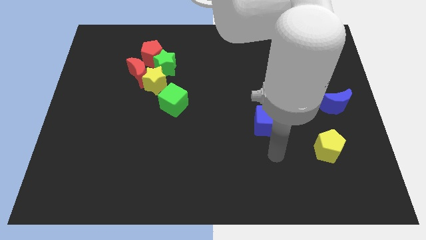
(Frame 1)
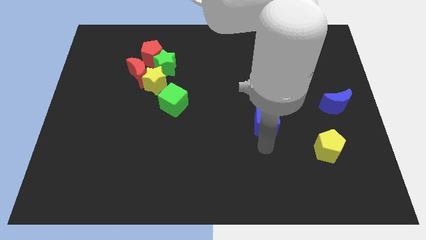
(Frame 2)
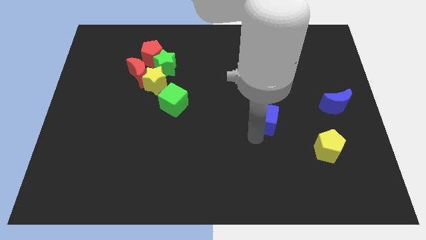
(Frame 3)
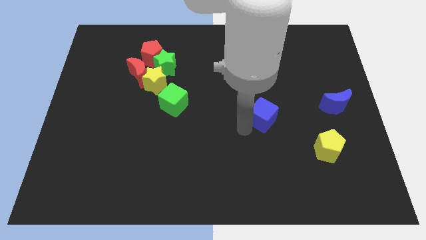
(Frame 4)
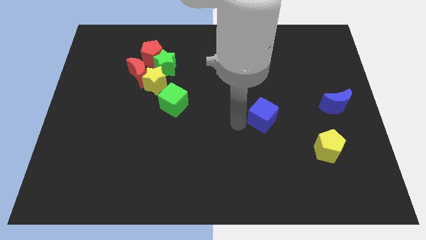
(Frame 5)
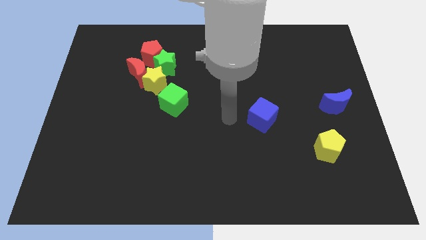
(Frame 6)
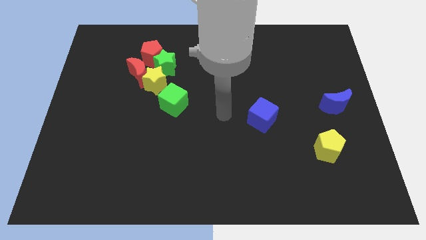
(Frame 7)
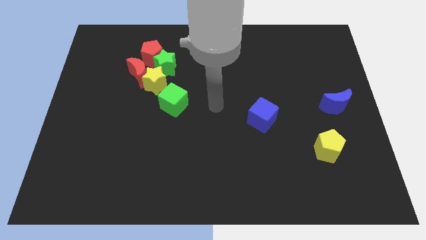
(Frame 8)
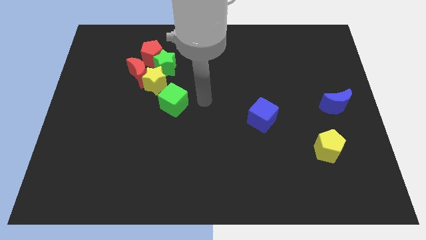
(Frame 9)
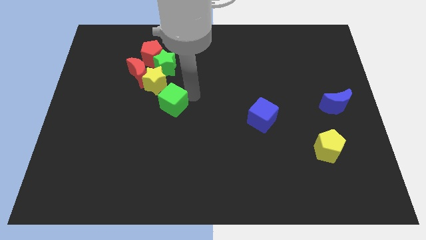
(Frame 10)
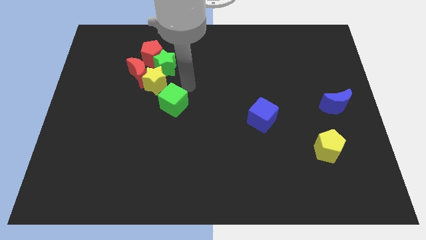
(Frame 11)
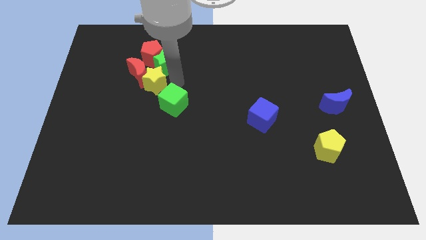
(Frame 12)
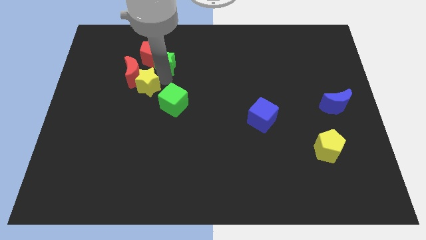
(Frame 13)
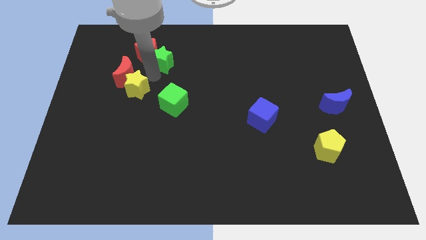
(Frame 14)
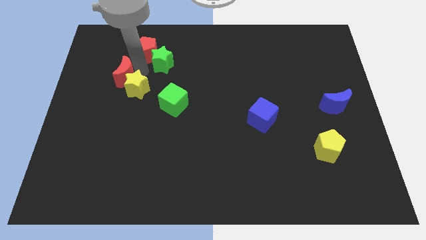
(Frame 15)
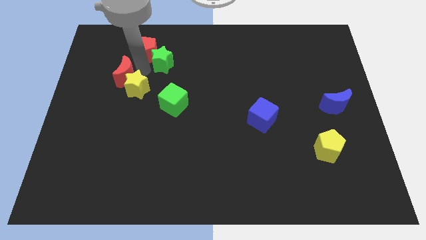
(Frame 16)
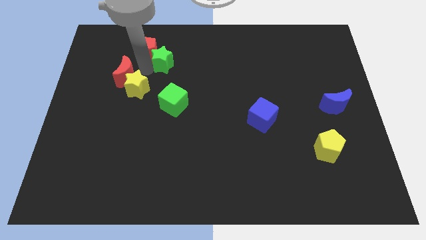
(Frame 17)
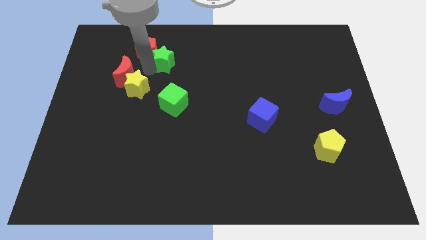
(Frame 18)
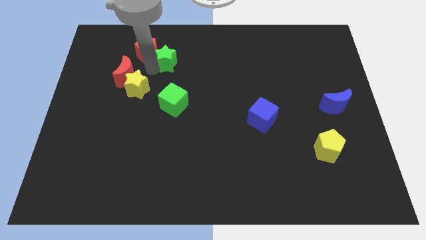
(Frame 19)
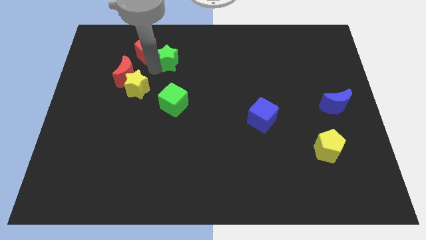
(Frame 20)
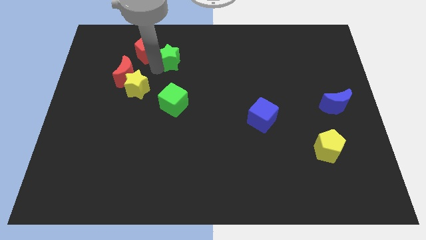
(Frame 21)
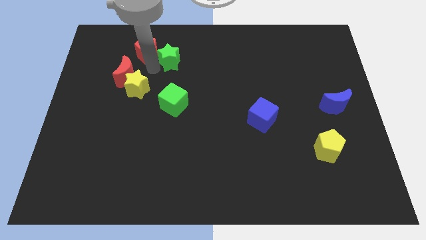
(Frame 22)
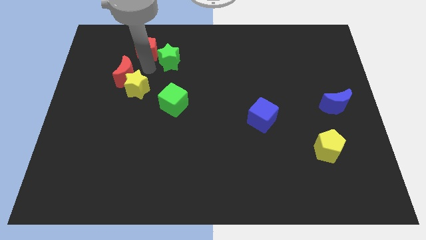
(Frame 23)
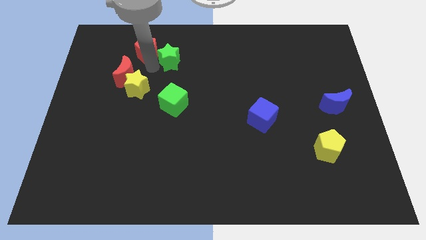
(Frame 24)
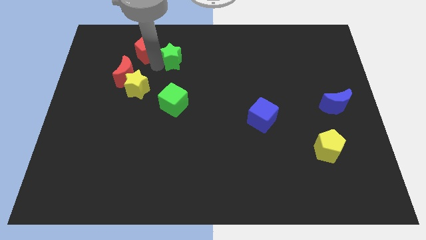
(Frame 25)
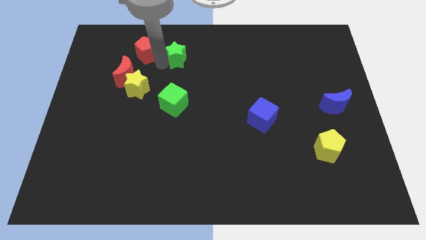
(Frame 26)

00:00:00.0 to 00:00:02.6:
pull the green star apart from the red pentagon, yellow star, and red moon

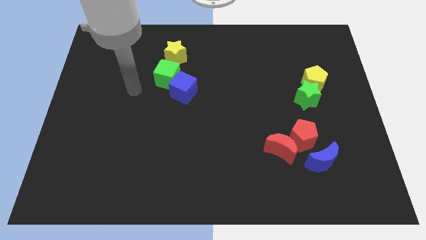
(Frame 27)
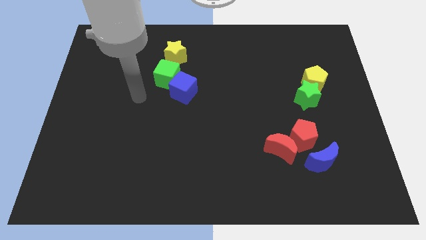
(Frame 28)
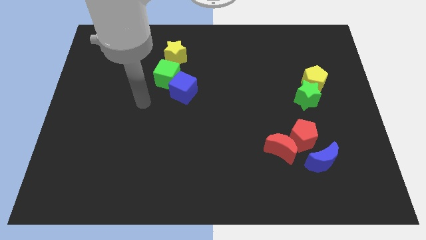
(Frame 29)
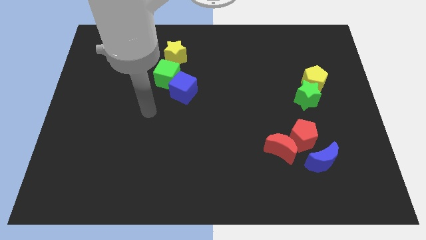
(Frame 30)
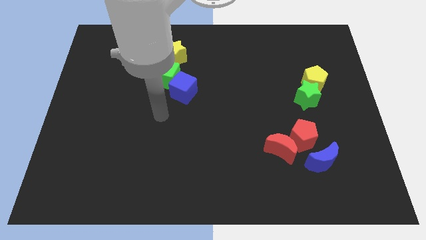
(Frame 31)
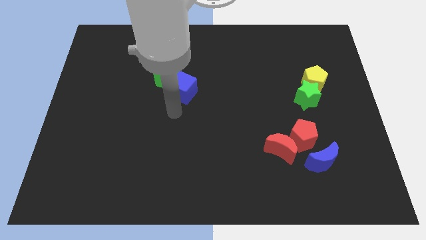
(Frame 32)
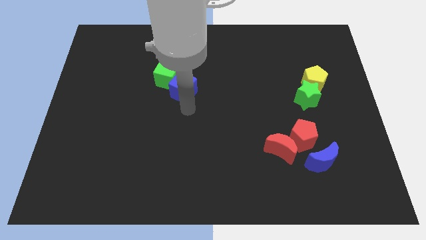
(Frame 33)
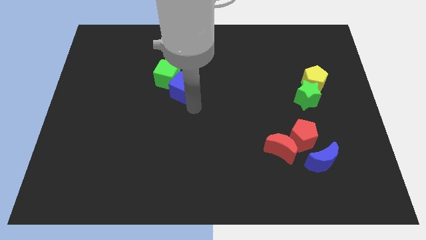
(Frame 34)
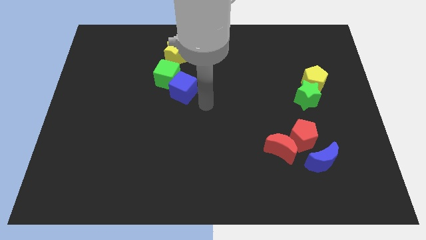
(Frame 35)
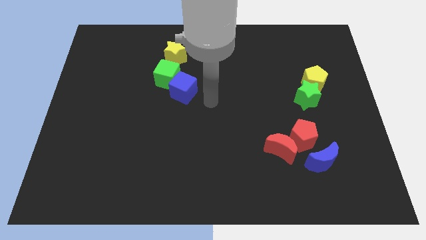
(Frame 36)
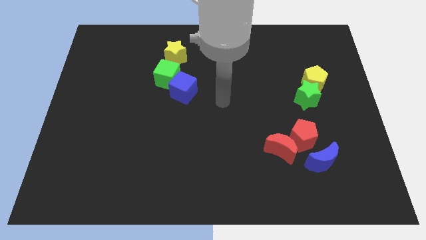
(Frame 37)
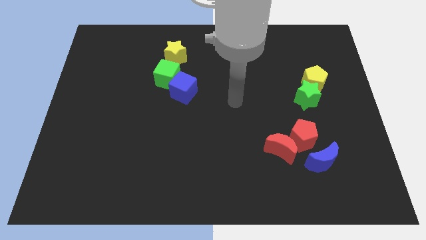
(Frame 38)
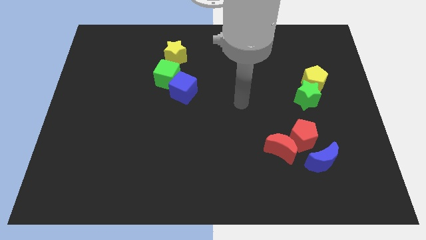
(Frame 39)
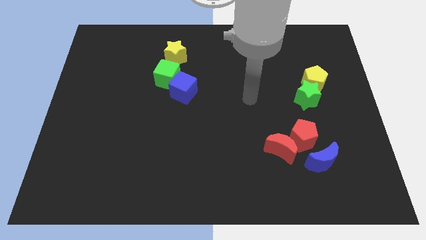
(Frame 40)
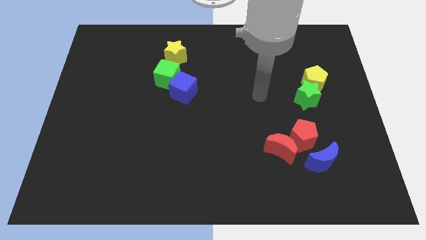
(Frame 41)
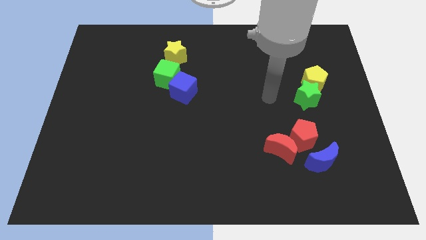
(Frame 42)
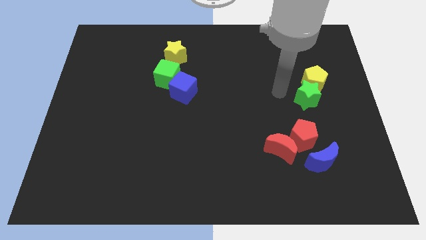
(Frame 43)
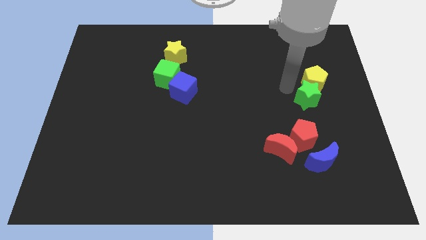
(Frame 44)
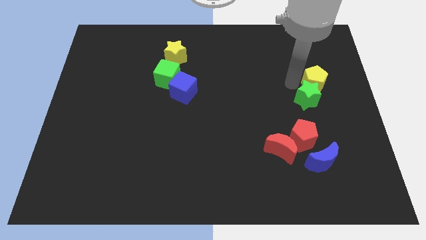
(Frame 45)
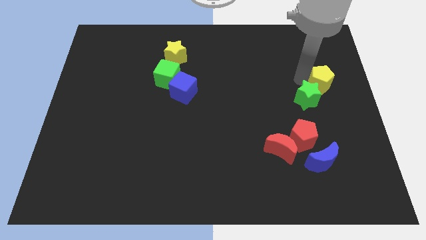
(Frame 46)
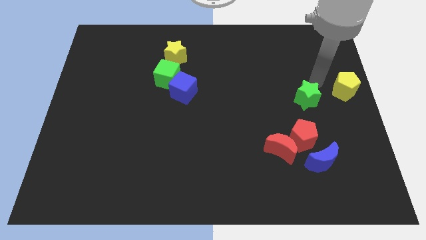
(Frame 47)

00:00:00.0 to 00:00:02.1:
separate the green star from the yellow pentagon

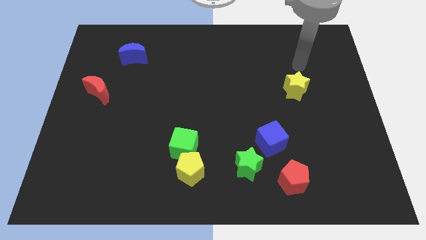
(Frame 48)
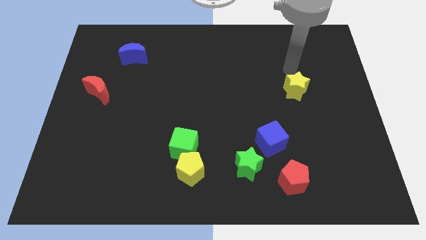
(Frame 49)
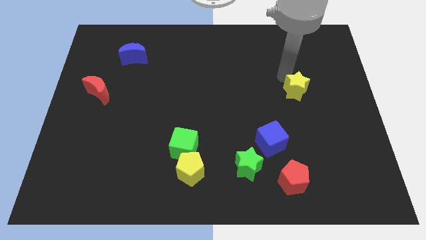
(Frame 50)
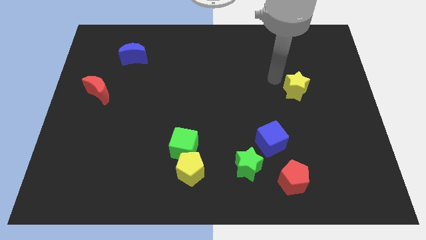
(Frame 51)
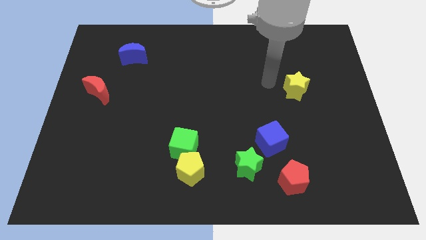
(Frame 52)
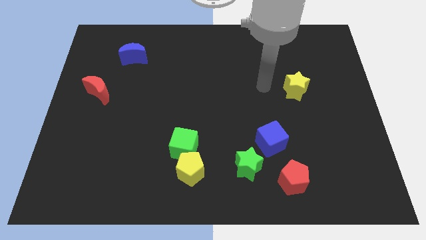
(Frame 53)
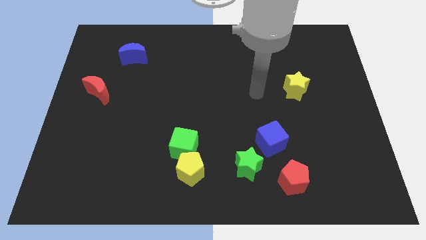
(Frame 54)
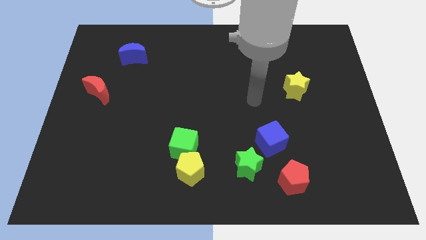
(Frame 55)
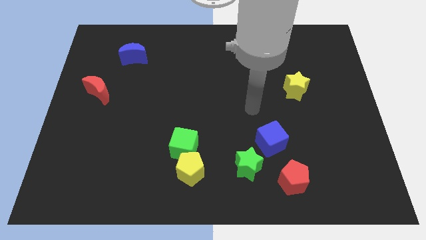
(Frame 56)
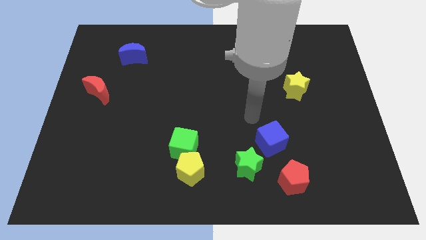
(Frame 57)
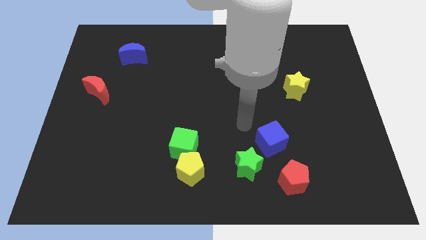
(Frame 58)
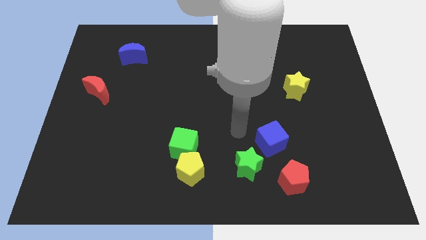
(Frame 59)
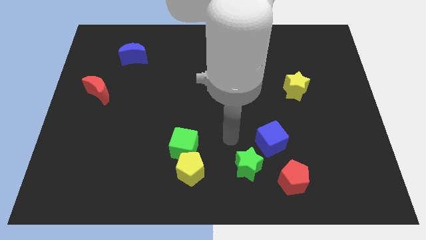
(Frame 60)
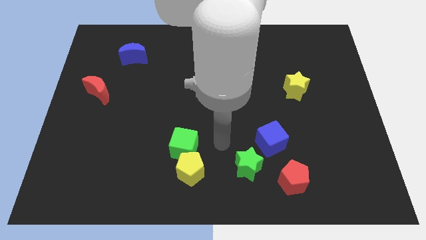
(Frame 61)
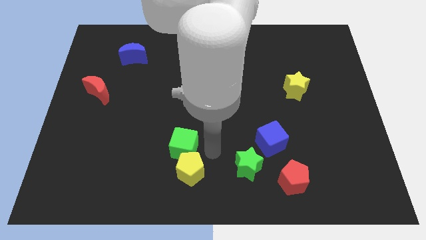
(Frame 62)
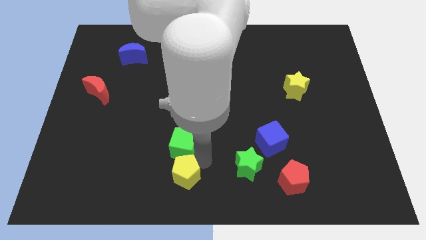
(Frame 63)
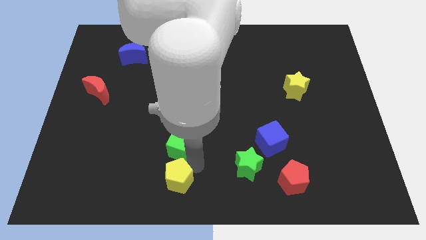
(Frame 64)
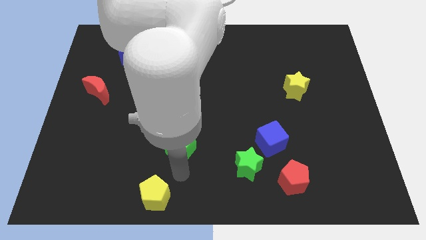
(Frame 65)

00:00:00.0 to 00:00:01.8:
move the green cube away from the yellow pentagon

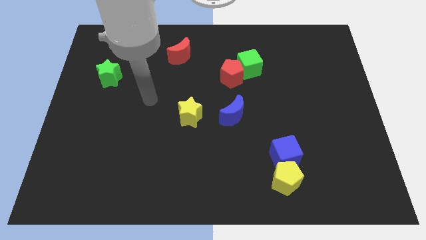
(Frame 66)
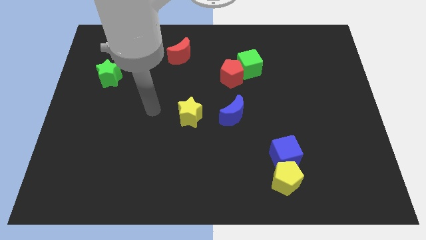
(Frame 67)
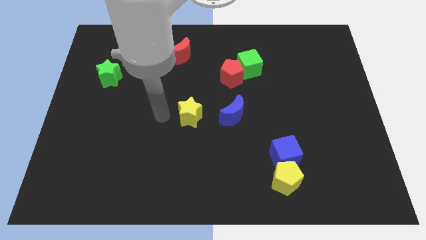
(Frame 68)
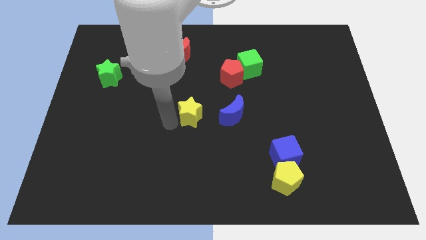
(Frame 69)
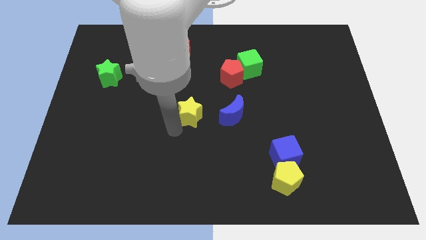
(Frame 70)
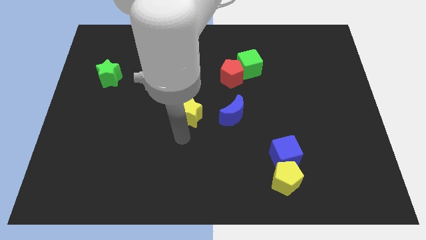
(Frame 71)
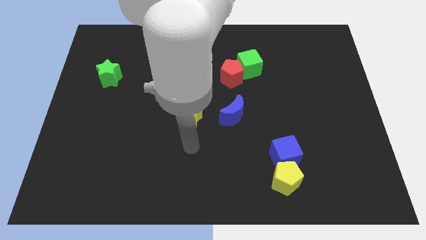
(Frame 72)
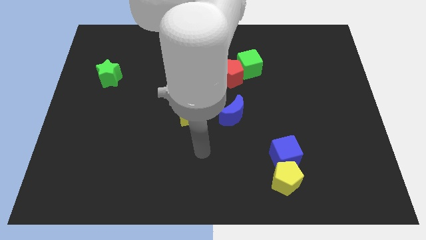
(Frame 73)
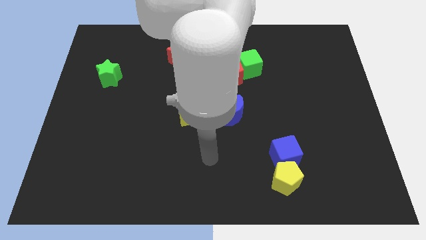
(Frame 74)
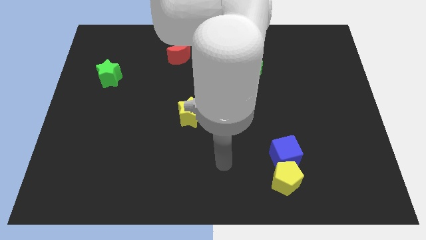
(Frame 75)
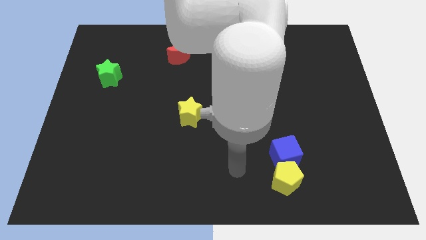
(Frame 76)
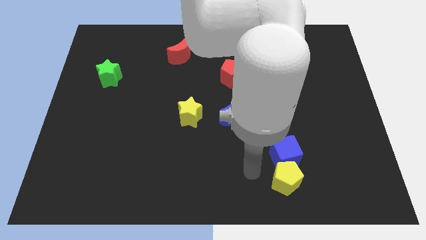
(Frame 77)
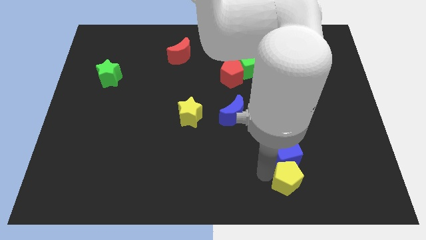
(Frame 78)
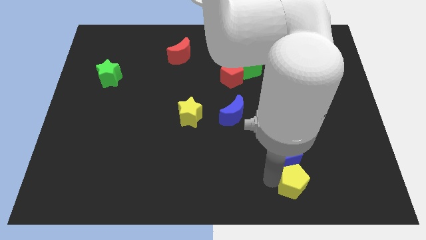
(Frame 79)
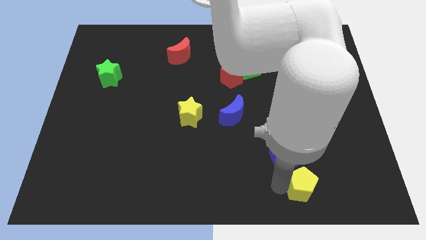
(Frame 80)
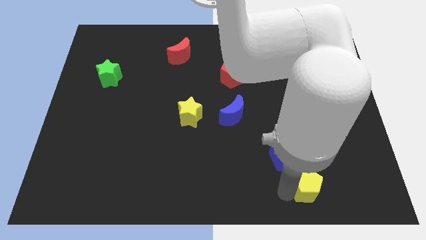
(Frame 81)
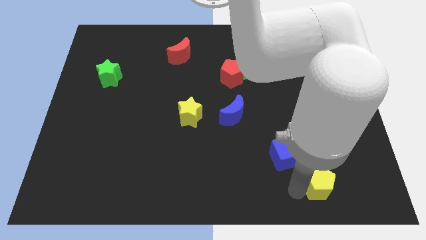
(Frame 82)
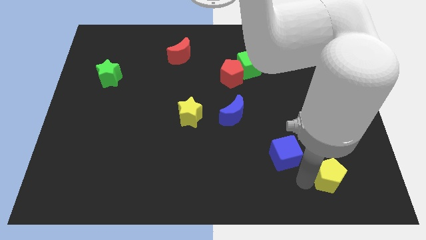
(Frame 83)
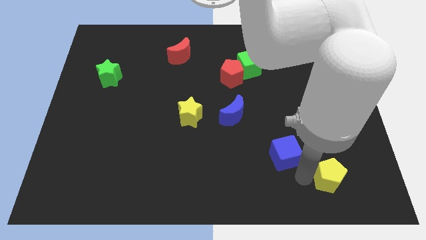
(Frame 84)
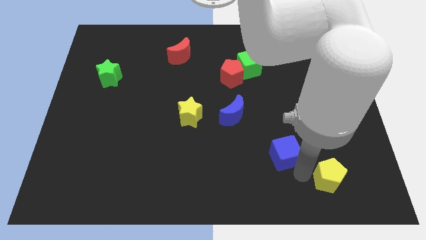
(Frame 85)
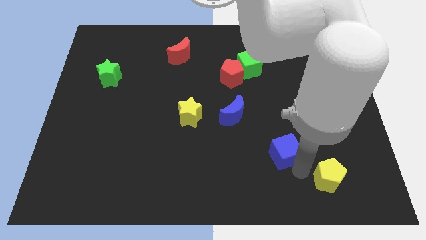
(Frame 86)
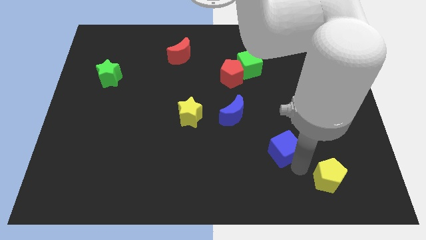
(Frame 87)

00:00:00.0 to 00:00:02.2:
move the blue cube away from the yellow pentagon

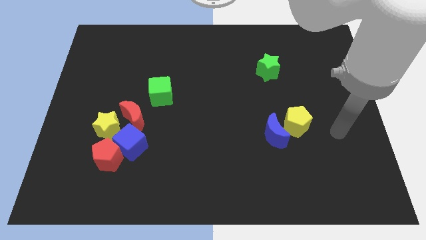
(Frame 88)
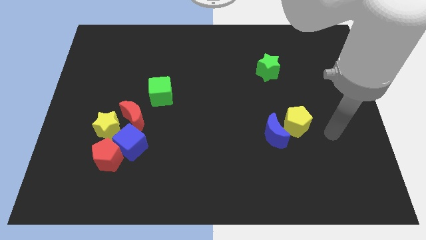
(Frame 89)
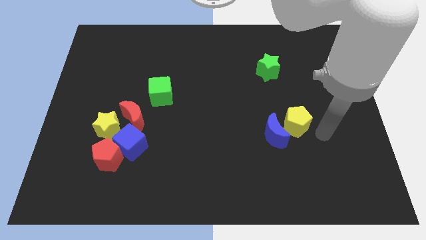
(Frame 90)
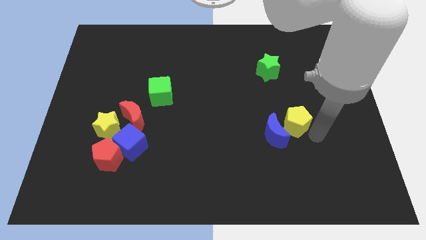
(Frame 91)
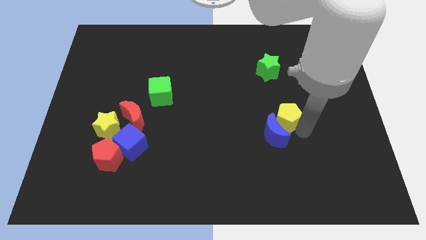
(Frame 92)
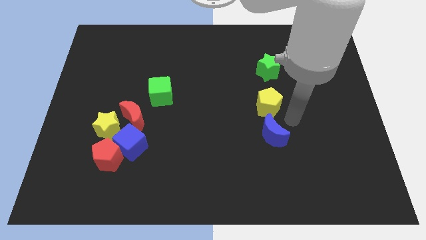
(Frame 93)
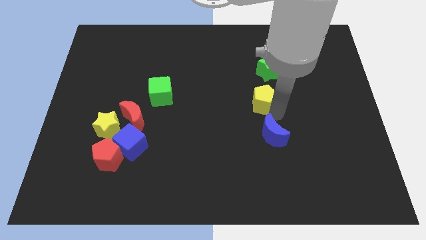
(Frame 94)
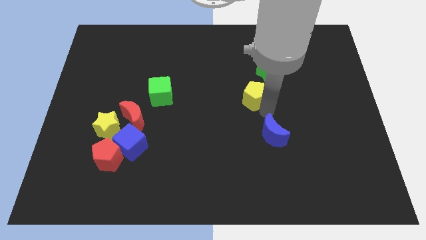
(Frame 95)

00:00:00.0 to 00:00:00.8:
pull the blue moon apart from the yellow pentagon
